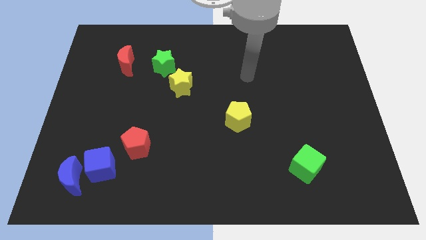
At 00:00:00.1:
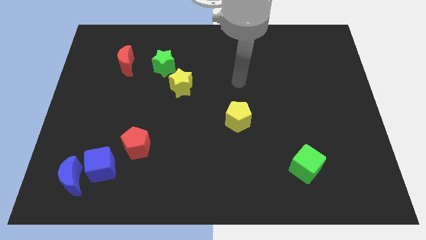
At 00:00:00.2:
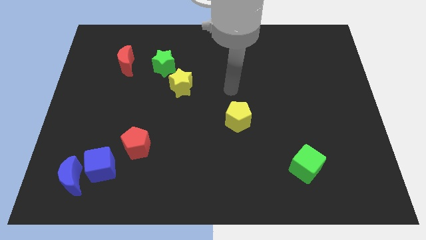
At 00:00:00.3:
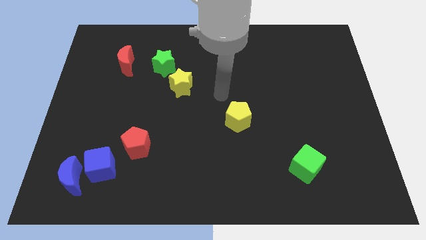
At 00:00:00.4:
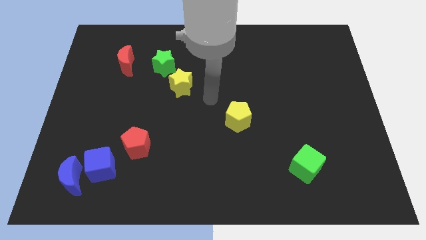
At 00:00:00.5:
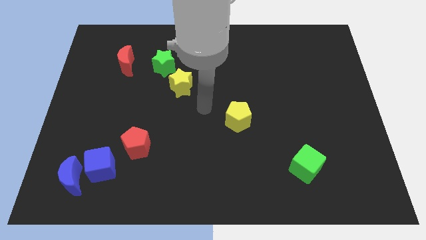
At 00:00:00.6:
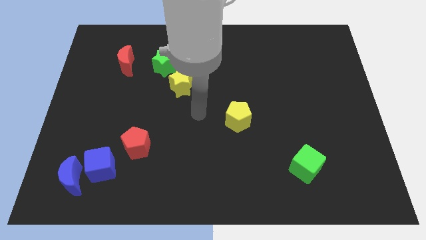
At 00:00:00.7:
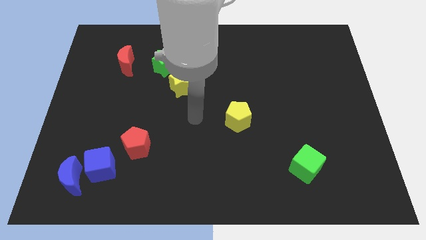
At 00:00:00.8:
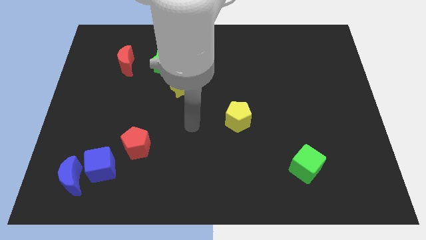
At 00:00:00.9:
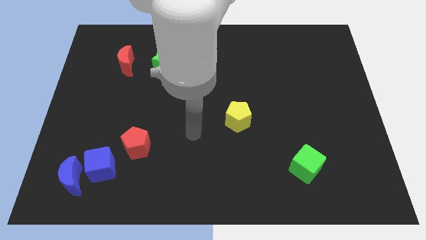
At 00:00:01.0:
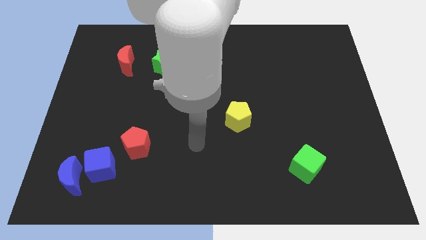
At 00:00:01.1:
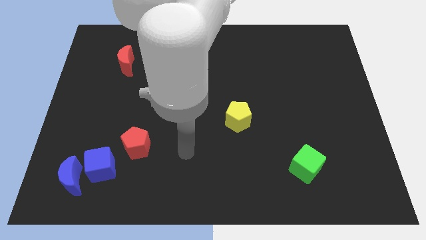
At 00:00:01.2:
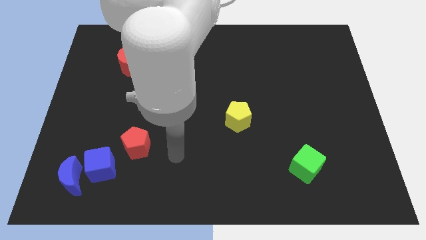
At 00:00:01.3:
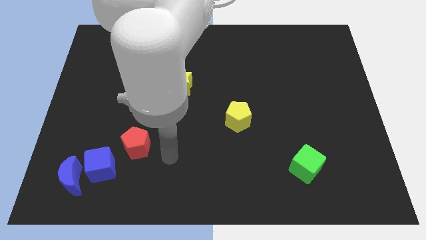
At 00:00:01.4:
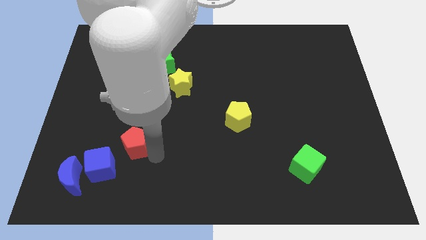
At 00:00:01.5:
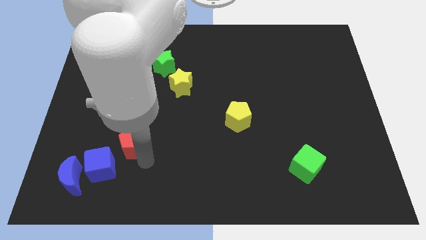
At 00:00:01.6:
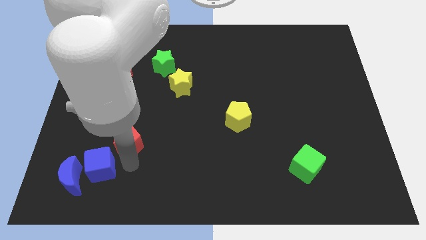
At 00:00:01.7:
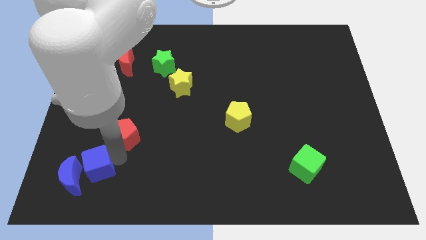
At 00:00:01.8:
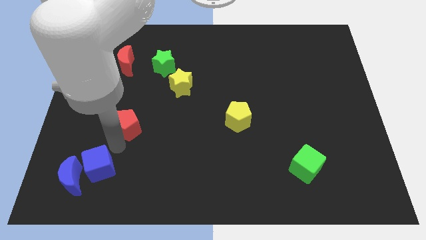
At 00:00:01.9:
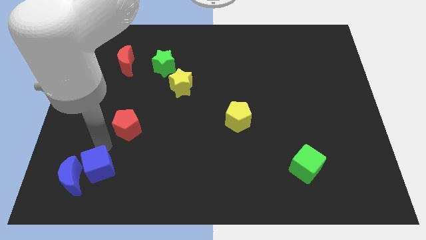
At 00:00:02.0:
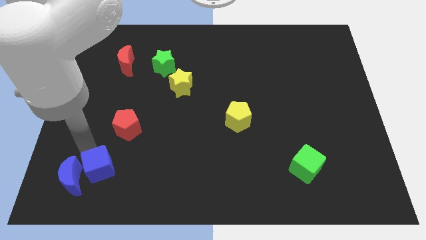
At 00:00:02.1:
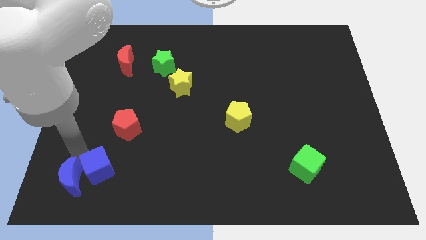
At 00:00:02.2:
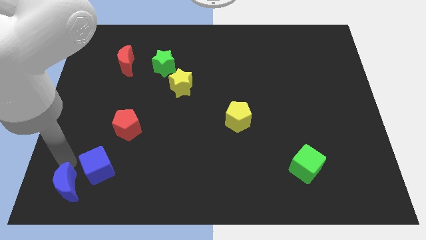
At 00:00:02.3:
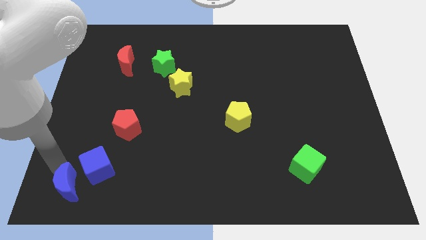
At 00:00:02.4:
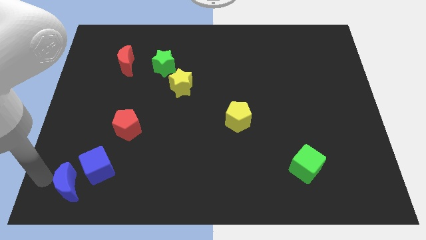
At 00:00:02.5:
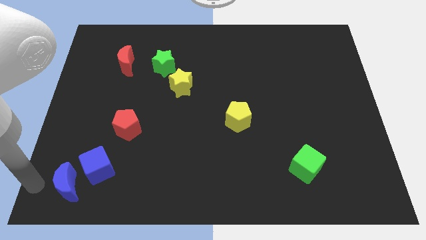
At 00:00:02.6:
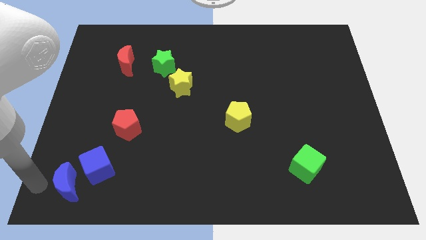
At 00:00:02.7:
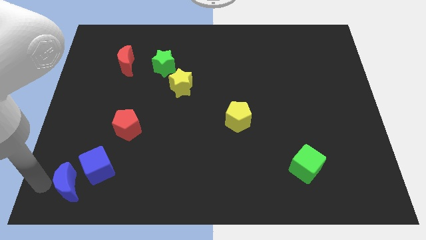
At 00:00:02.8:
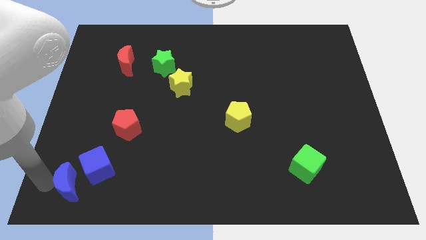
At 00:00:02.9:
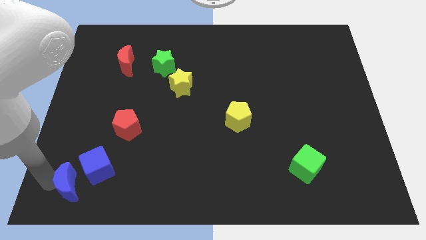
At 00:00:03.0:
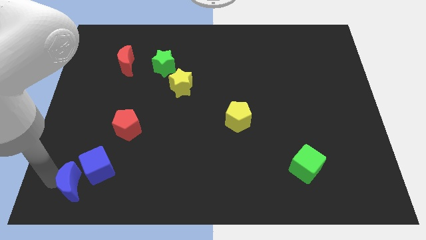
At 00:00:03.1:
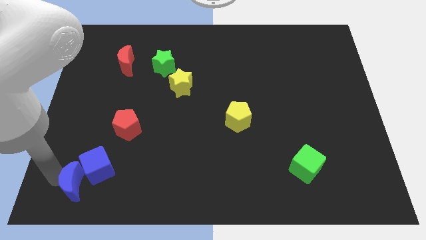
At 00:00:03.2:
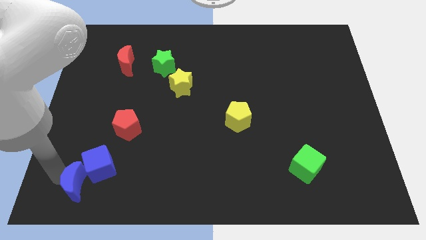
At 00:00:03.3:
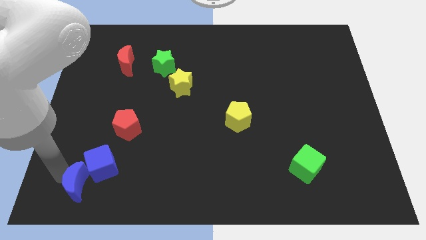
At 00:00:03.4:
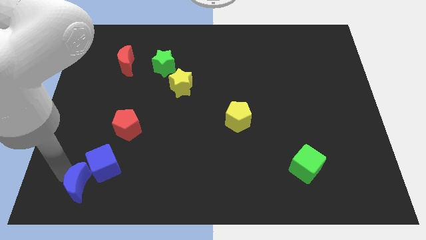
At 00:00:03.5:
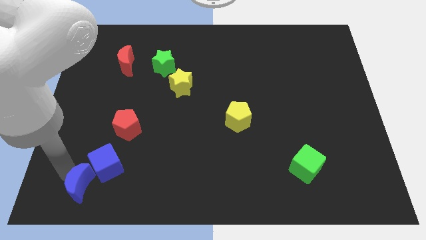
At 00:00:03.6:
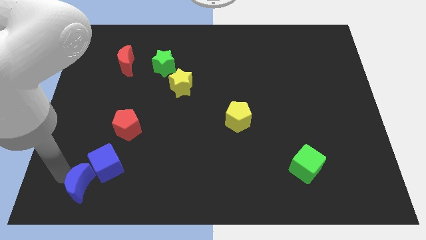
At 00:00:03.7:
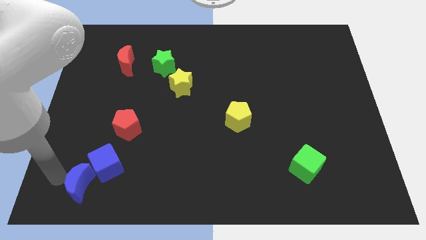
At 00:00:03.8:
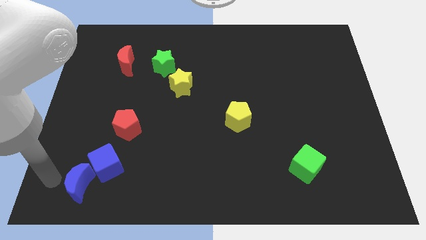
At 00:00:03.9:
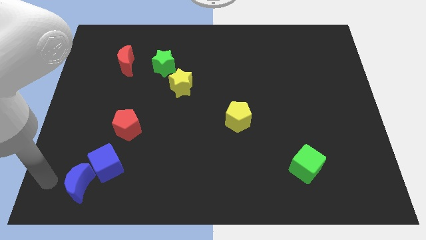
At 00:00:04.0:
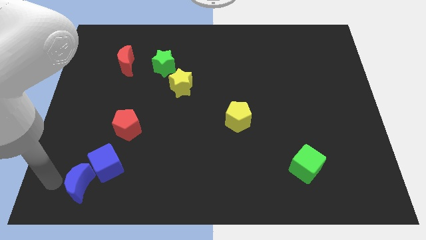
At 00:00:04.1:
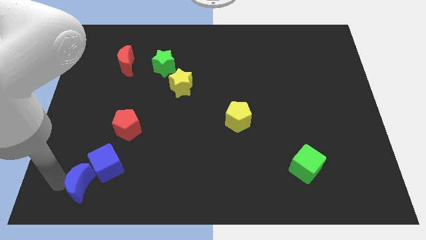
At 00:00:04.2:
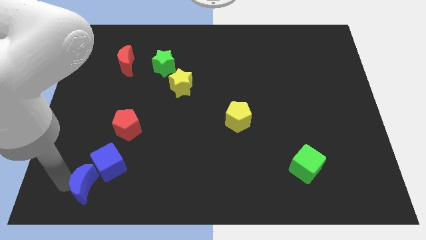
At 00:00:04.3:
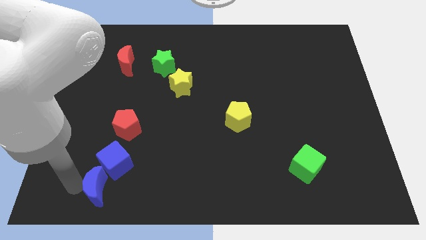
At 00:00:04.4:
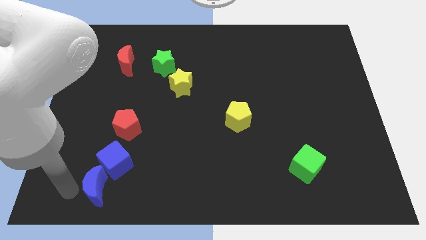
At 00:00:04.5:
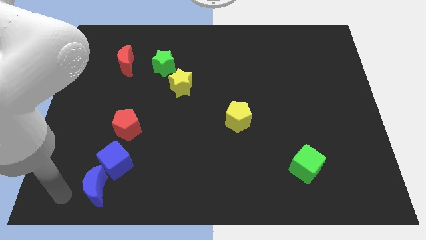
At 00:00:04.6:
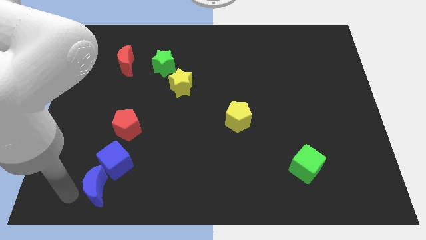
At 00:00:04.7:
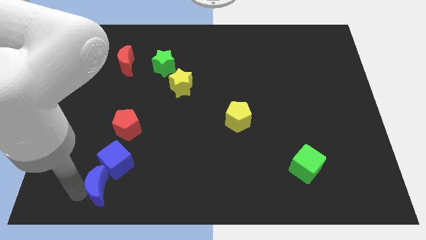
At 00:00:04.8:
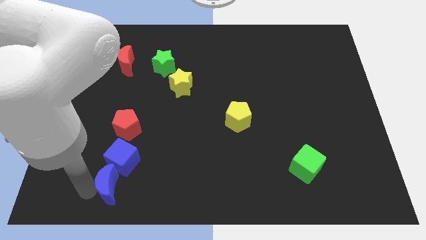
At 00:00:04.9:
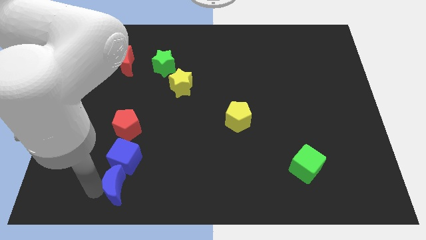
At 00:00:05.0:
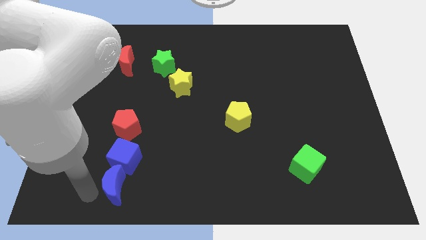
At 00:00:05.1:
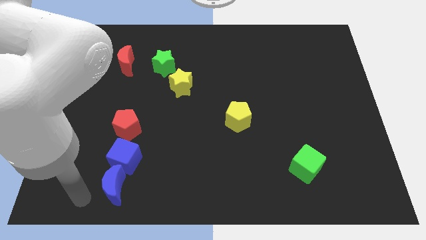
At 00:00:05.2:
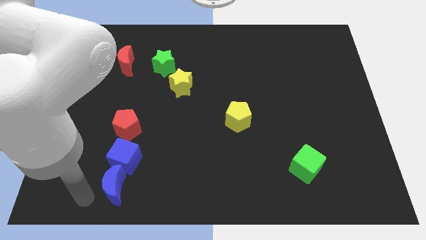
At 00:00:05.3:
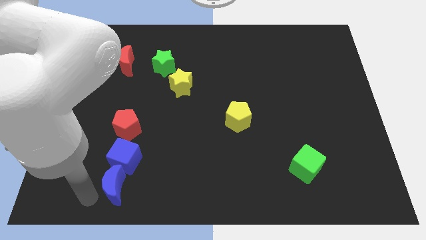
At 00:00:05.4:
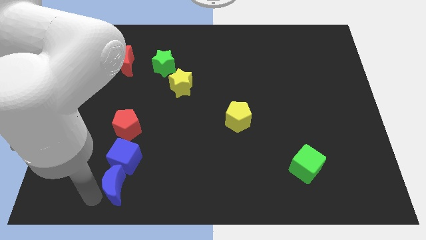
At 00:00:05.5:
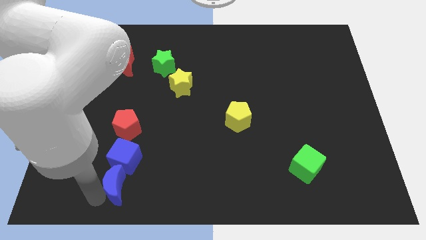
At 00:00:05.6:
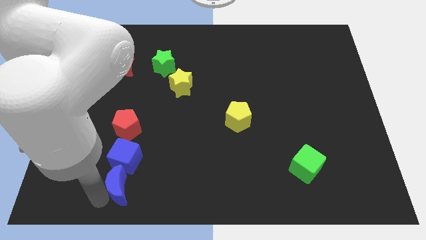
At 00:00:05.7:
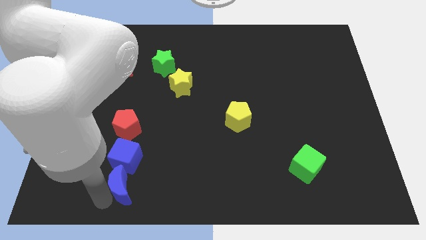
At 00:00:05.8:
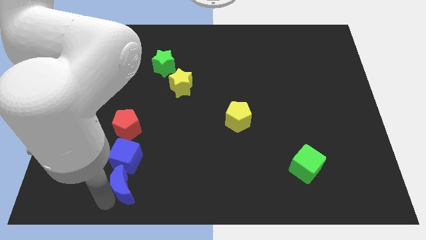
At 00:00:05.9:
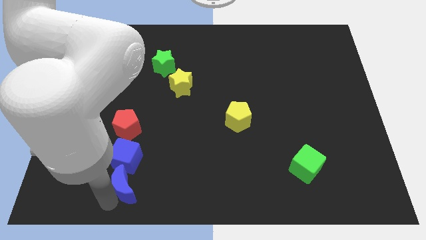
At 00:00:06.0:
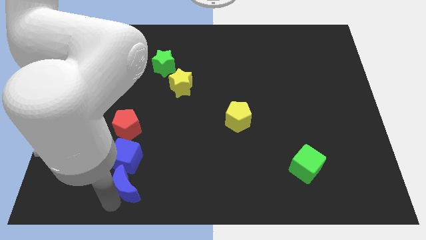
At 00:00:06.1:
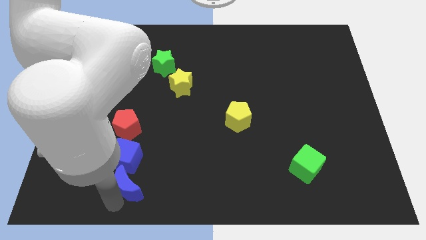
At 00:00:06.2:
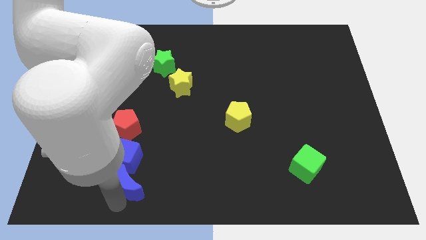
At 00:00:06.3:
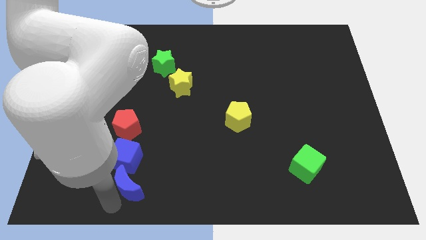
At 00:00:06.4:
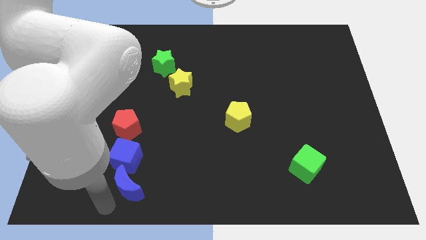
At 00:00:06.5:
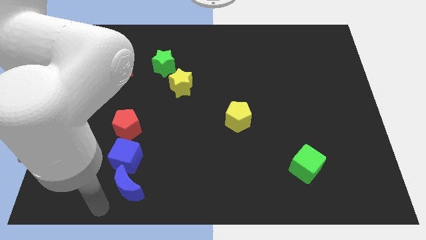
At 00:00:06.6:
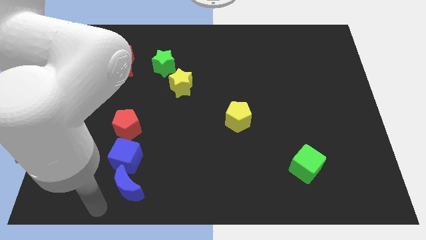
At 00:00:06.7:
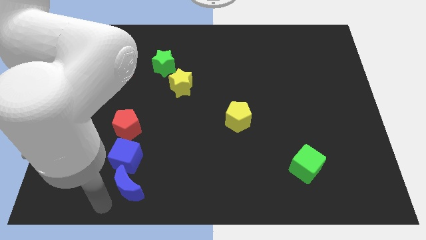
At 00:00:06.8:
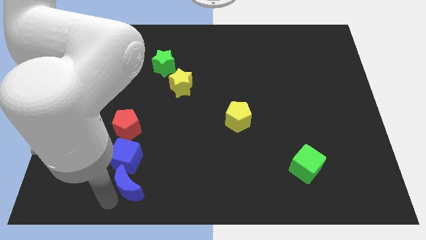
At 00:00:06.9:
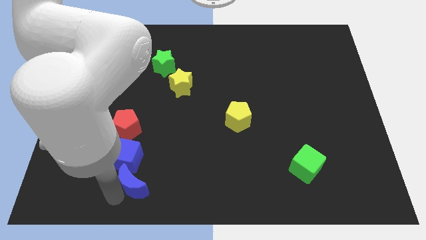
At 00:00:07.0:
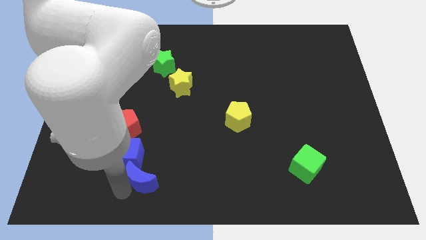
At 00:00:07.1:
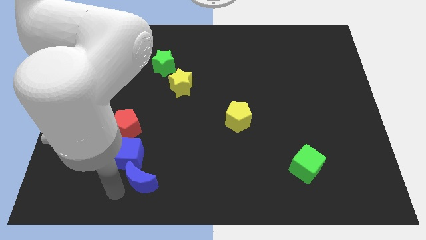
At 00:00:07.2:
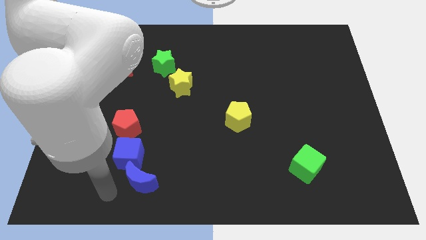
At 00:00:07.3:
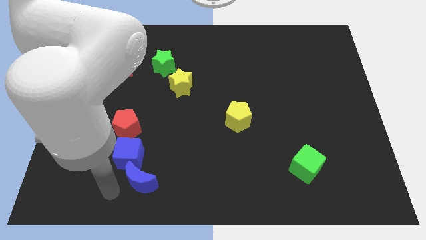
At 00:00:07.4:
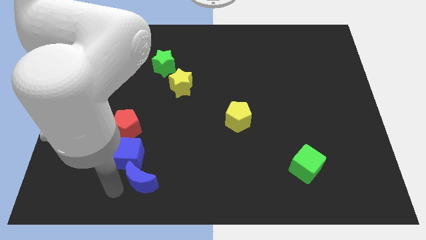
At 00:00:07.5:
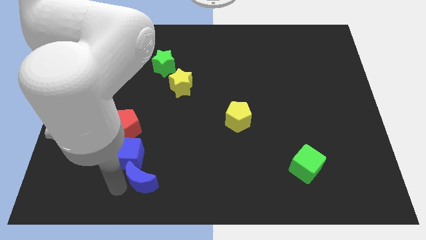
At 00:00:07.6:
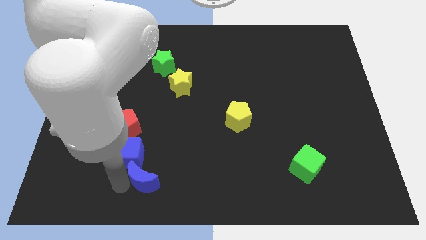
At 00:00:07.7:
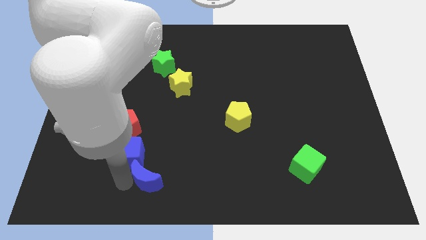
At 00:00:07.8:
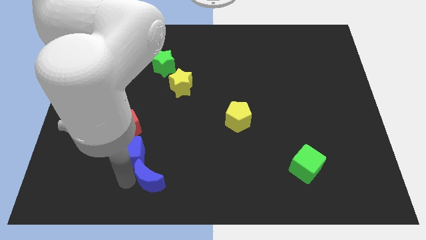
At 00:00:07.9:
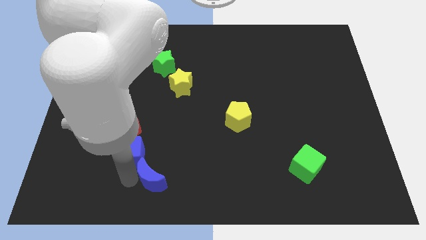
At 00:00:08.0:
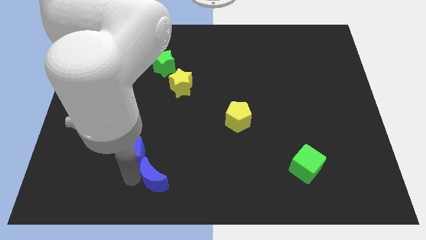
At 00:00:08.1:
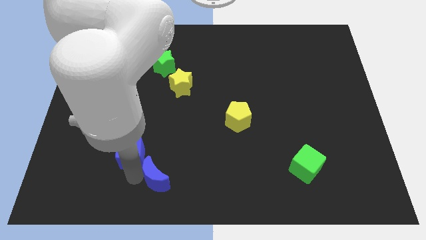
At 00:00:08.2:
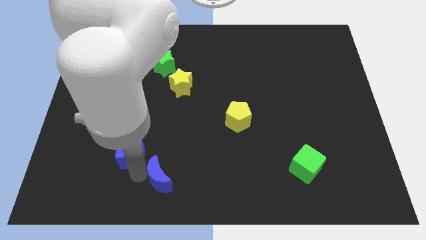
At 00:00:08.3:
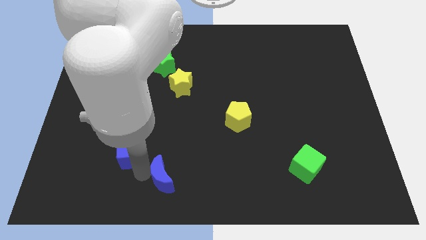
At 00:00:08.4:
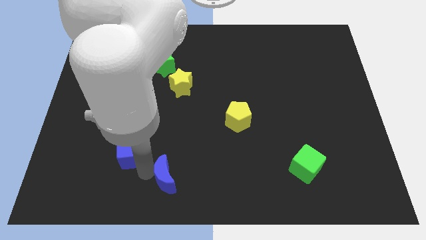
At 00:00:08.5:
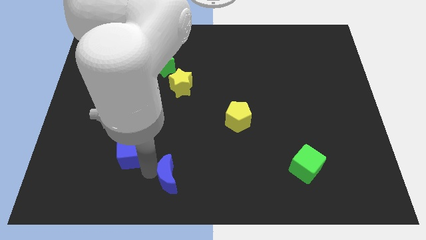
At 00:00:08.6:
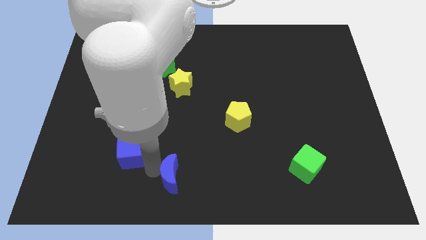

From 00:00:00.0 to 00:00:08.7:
slide the blue moon right
